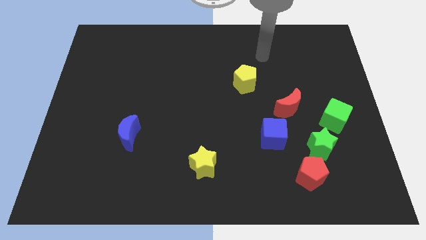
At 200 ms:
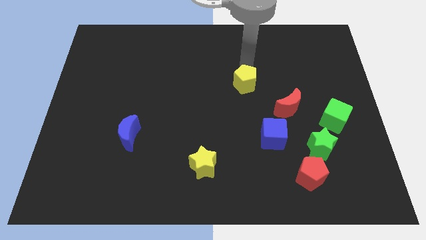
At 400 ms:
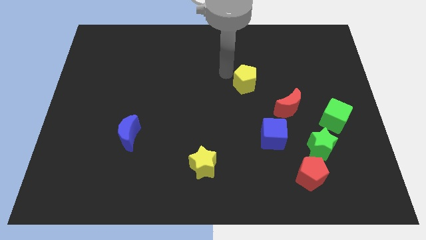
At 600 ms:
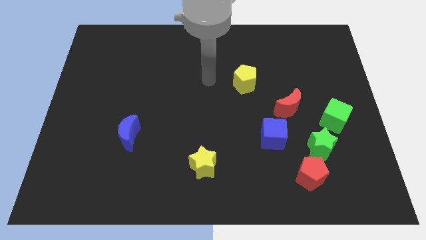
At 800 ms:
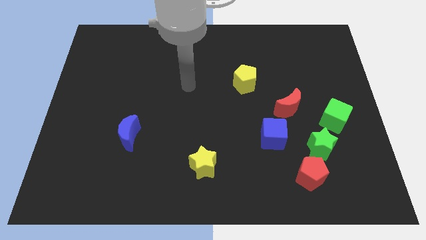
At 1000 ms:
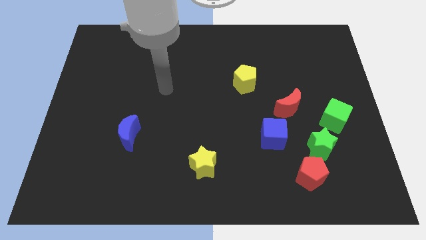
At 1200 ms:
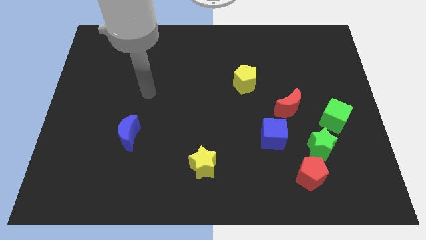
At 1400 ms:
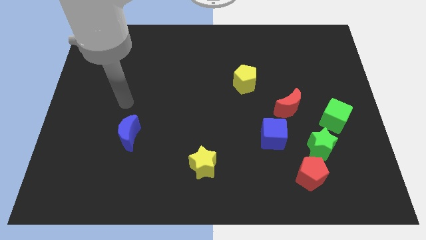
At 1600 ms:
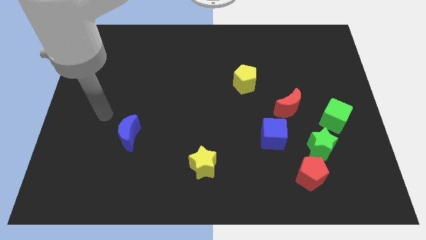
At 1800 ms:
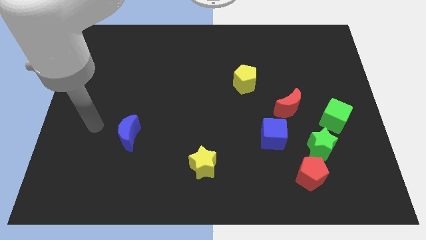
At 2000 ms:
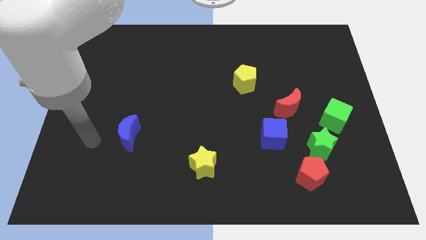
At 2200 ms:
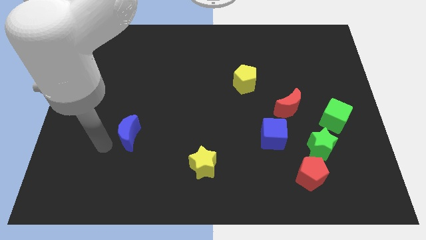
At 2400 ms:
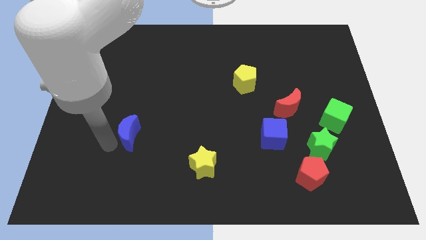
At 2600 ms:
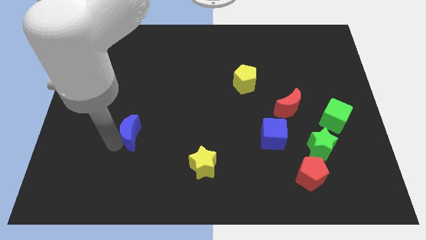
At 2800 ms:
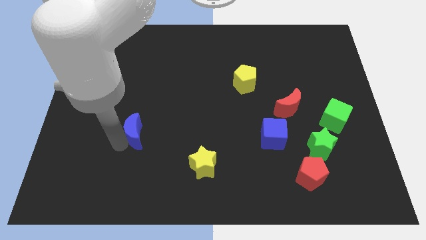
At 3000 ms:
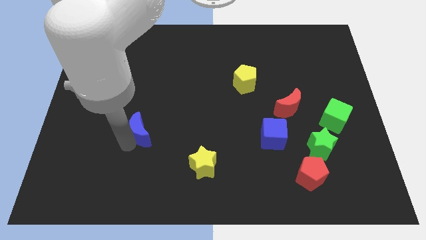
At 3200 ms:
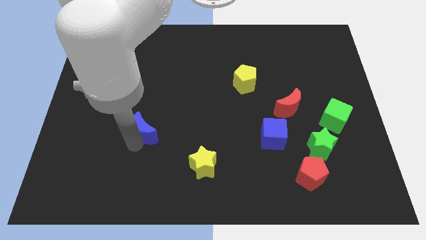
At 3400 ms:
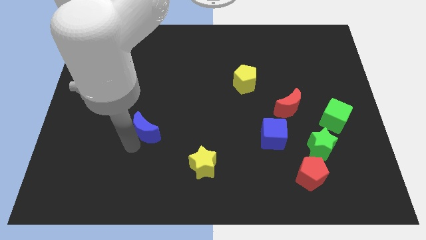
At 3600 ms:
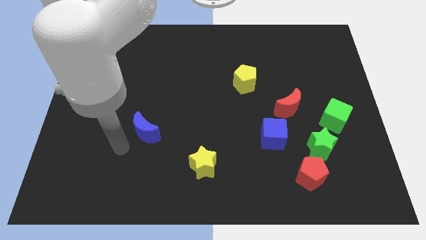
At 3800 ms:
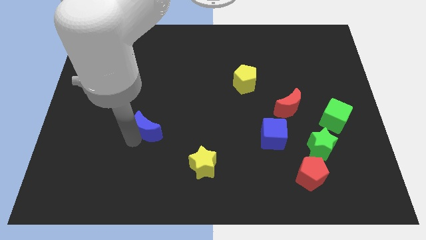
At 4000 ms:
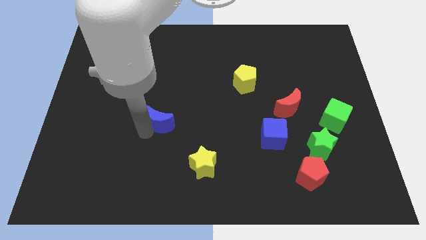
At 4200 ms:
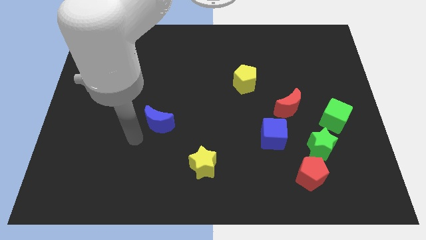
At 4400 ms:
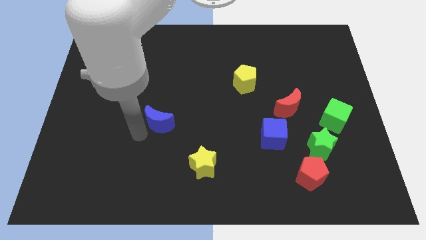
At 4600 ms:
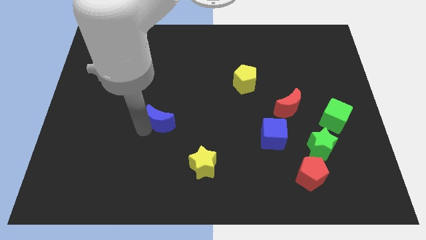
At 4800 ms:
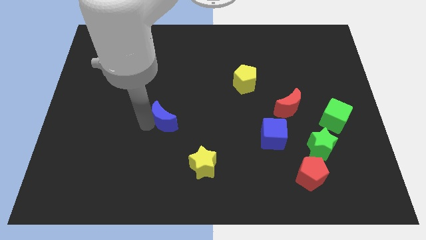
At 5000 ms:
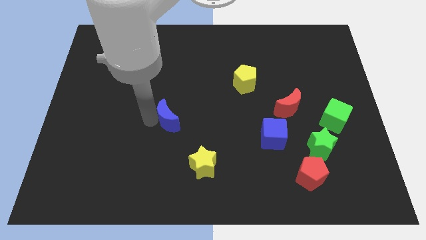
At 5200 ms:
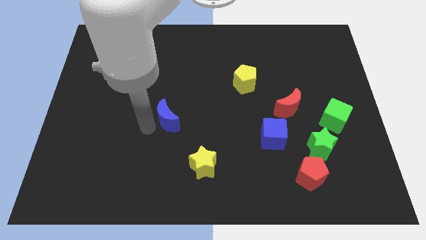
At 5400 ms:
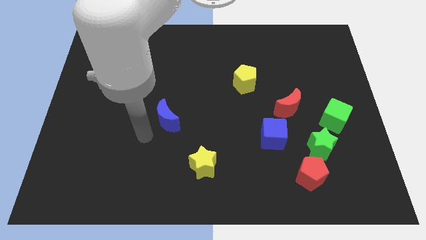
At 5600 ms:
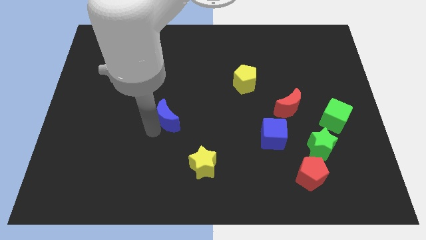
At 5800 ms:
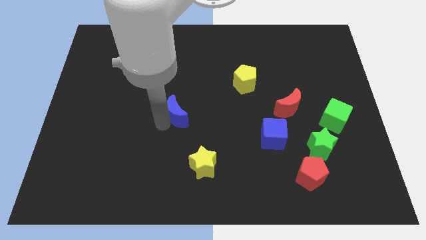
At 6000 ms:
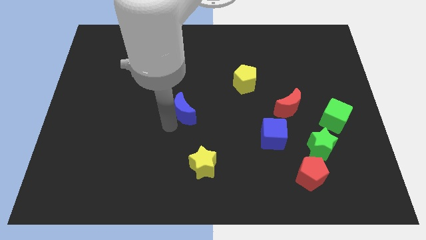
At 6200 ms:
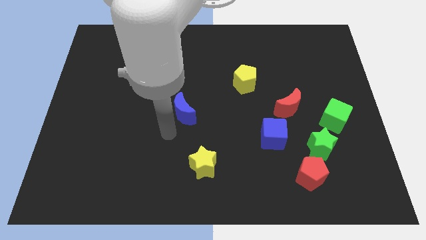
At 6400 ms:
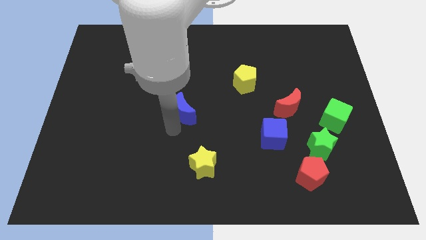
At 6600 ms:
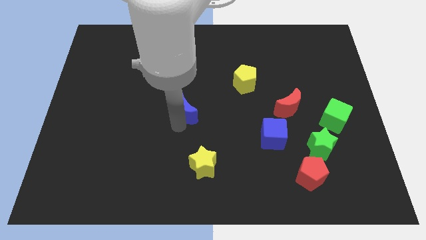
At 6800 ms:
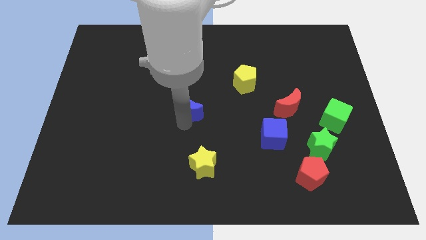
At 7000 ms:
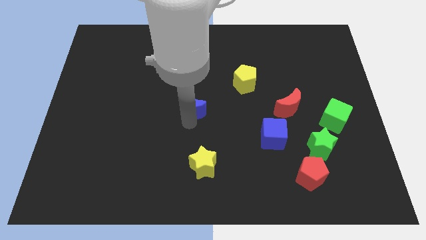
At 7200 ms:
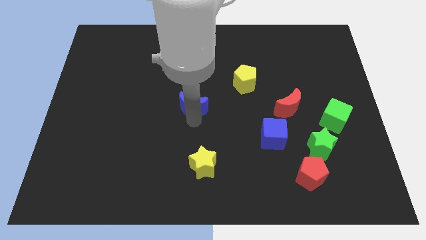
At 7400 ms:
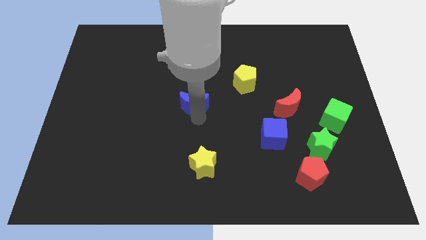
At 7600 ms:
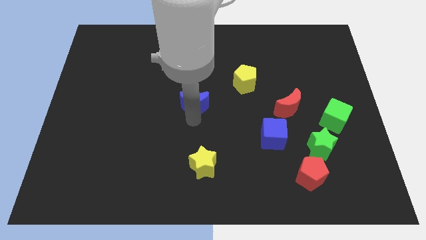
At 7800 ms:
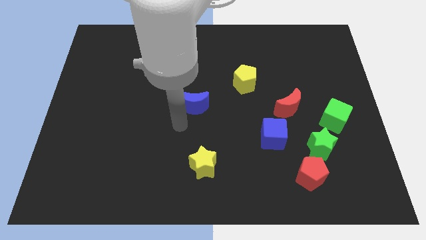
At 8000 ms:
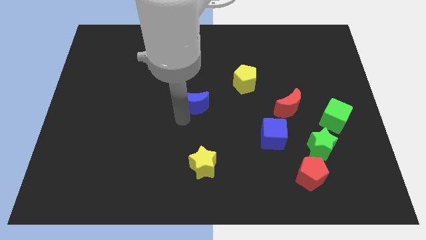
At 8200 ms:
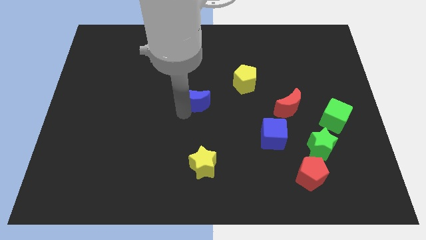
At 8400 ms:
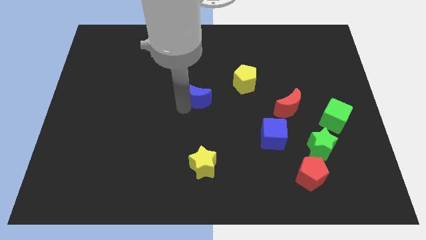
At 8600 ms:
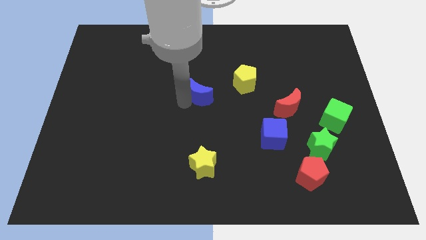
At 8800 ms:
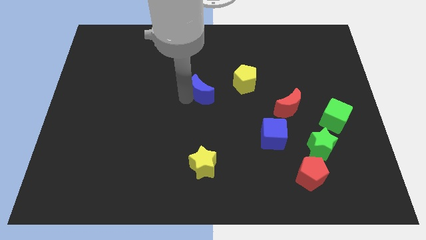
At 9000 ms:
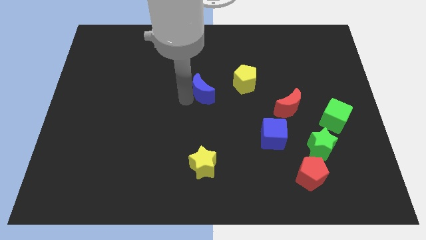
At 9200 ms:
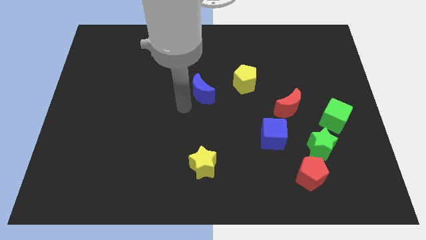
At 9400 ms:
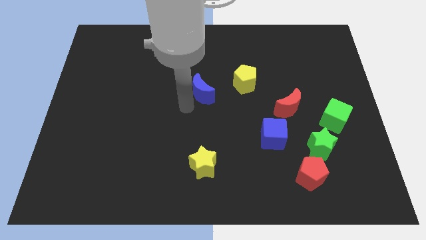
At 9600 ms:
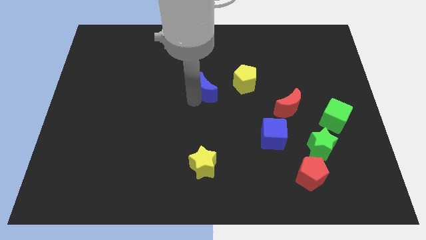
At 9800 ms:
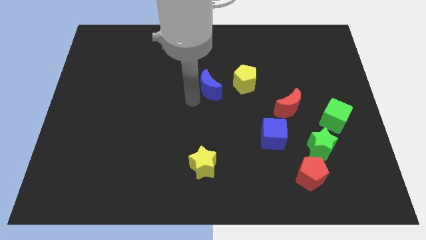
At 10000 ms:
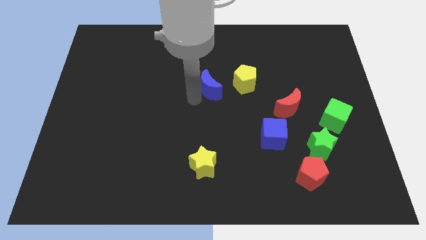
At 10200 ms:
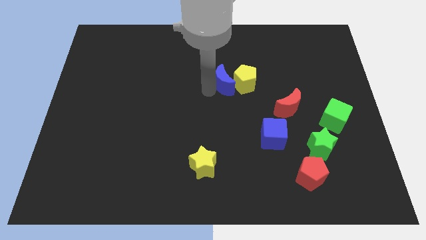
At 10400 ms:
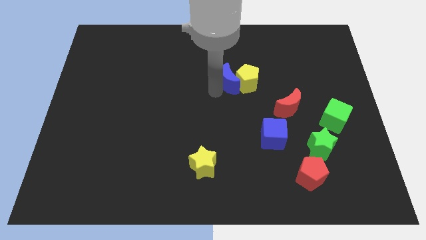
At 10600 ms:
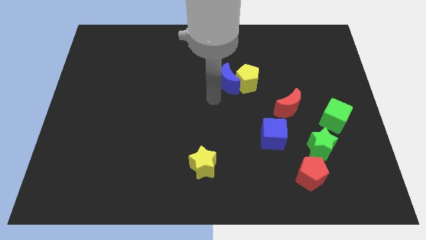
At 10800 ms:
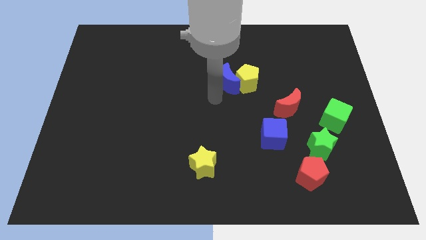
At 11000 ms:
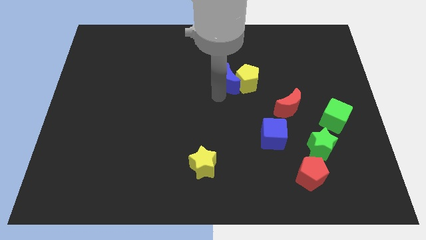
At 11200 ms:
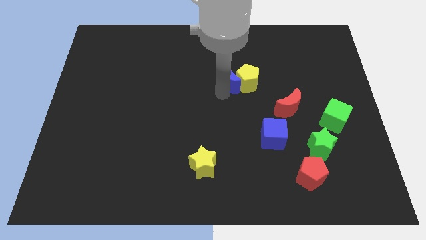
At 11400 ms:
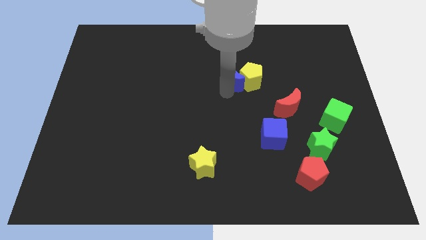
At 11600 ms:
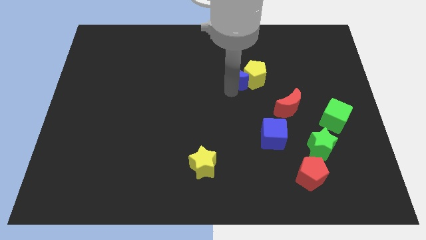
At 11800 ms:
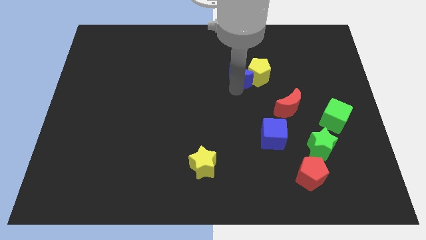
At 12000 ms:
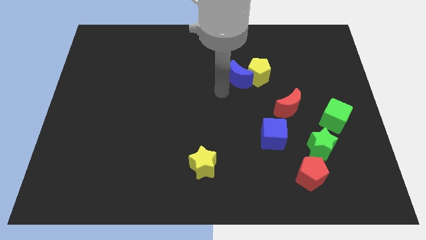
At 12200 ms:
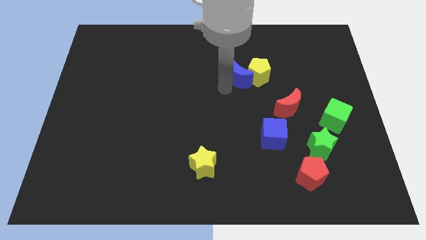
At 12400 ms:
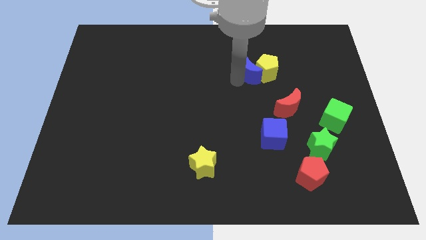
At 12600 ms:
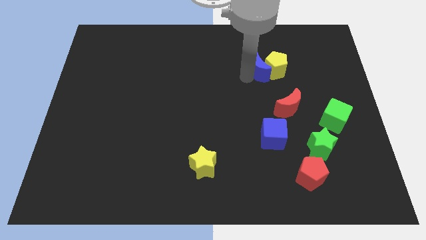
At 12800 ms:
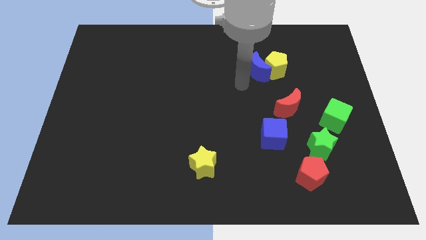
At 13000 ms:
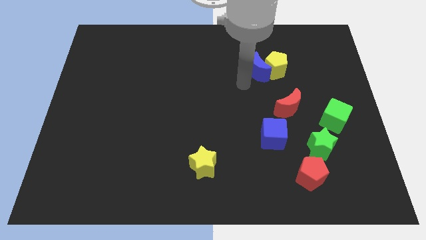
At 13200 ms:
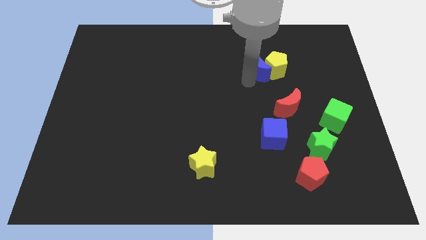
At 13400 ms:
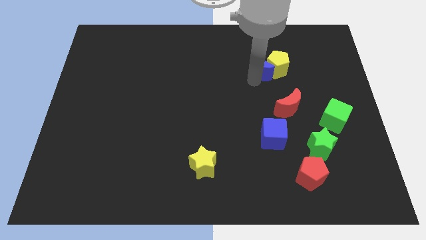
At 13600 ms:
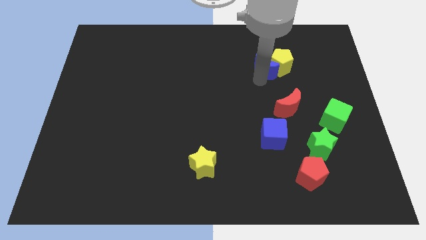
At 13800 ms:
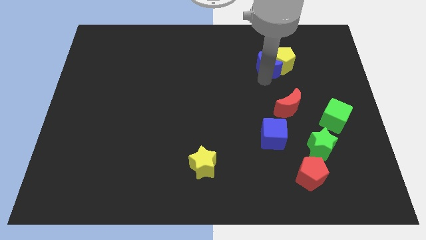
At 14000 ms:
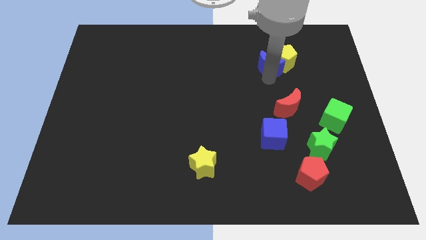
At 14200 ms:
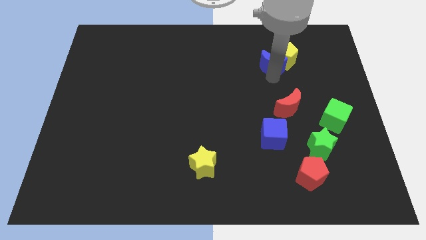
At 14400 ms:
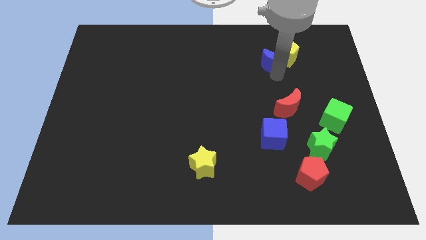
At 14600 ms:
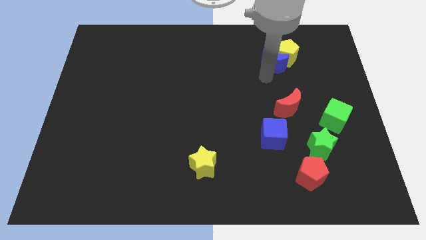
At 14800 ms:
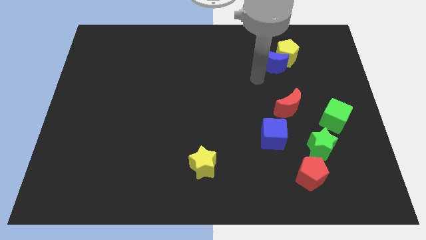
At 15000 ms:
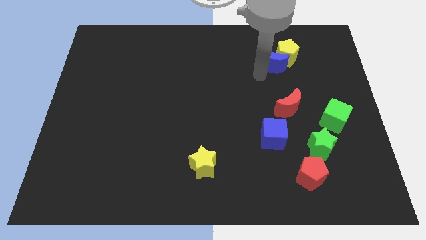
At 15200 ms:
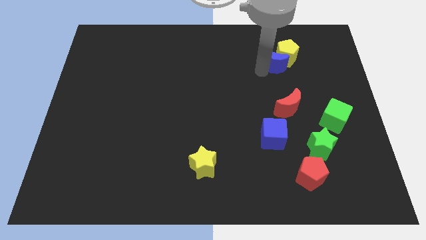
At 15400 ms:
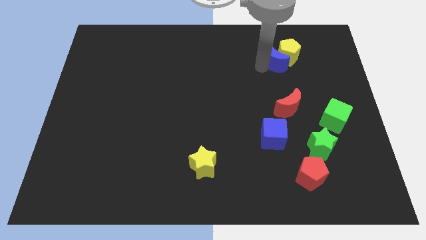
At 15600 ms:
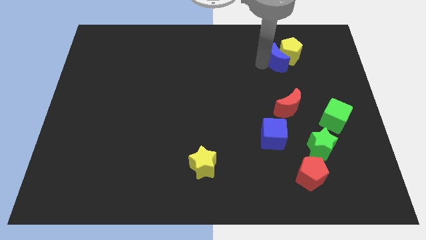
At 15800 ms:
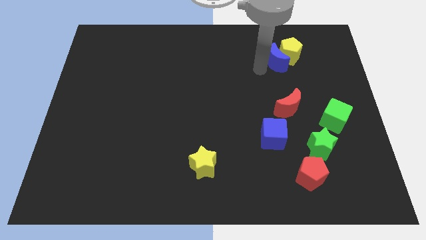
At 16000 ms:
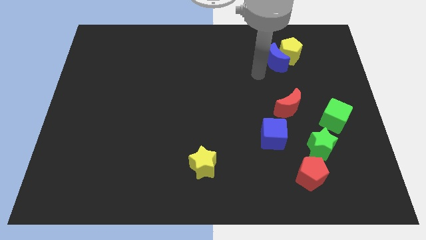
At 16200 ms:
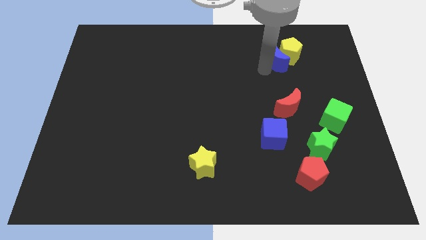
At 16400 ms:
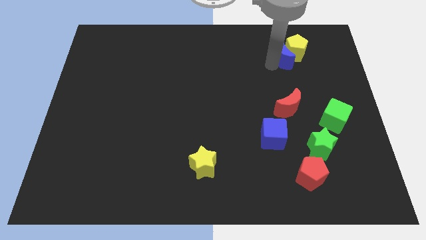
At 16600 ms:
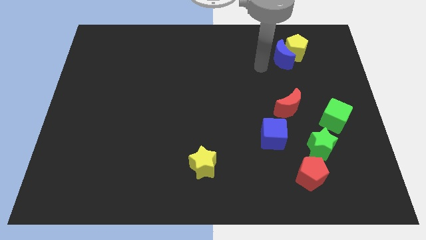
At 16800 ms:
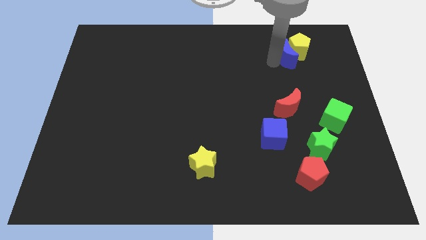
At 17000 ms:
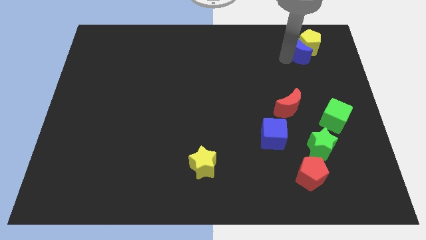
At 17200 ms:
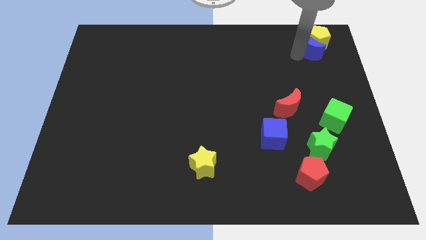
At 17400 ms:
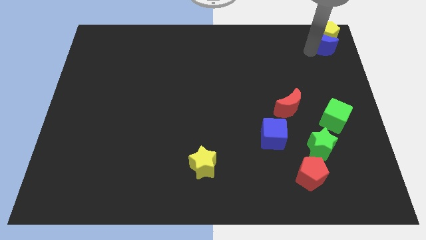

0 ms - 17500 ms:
put the blue moon to the upper right corner
